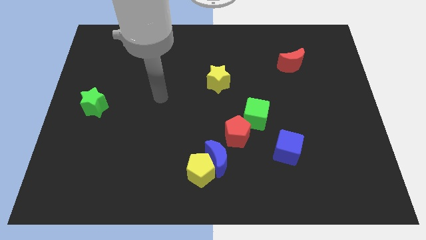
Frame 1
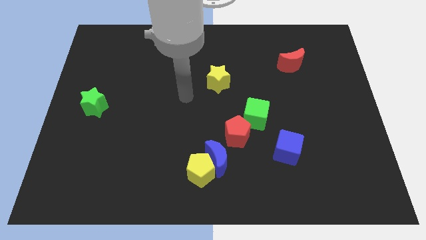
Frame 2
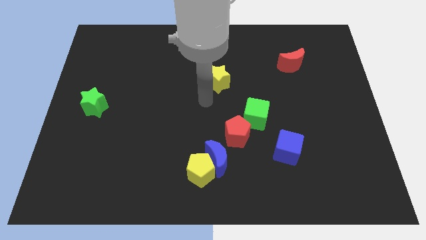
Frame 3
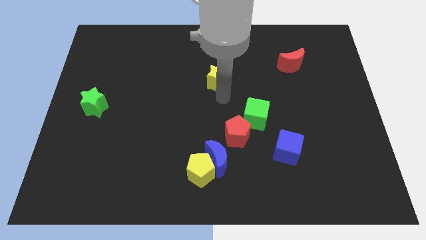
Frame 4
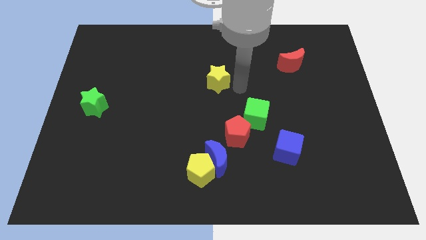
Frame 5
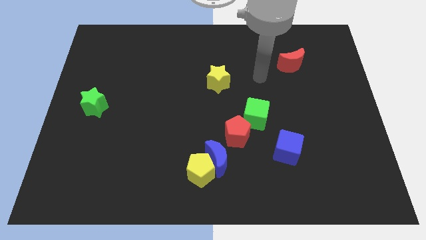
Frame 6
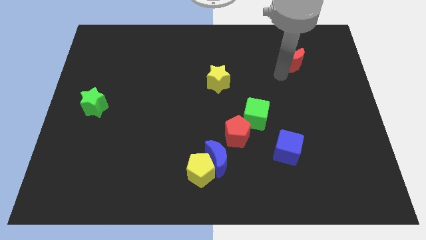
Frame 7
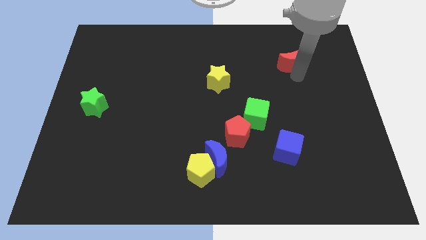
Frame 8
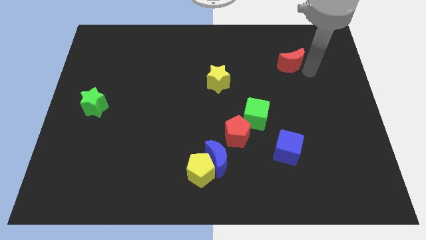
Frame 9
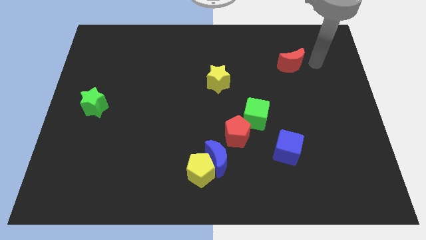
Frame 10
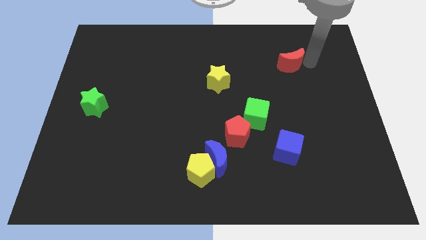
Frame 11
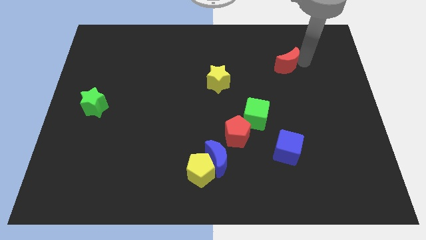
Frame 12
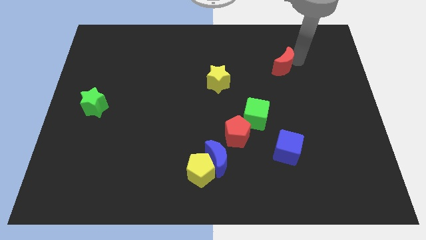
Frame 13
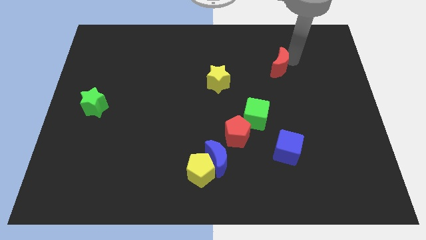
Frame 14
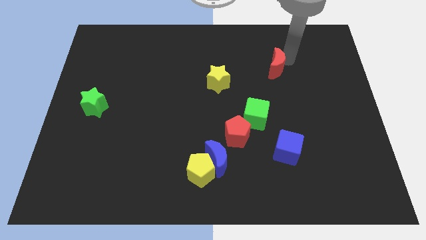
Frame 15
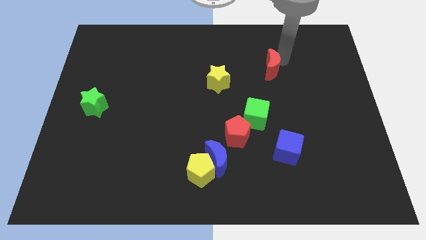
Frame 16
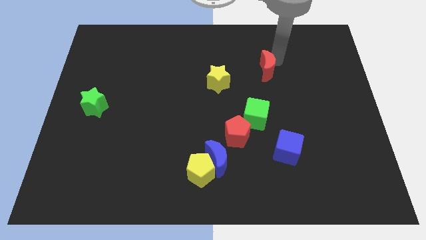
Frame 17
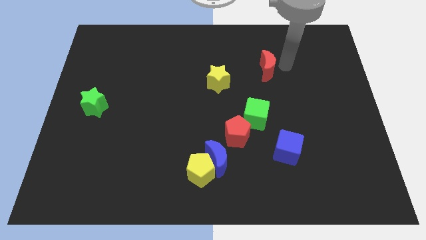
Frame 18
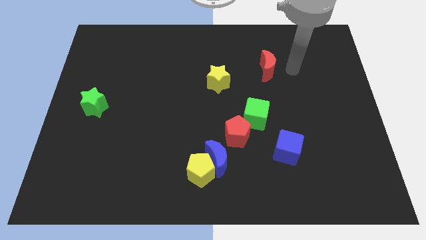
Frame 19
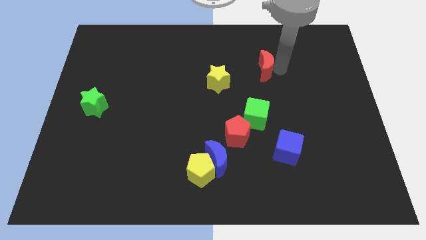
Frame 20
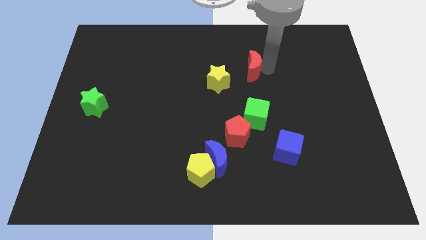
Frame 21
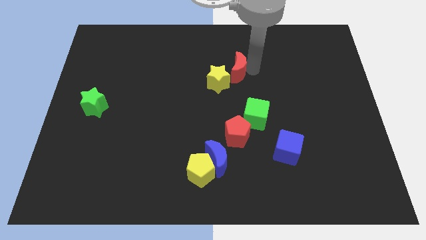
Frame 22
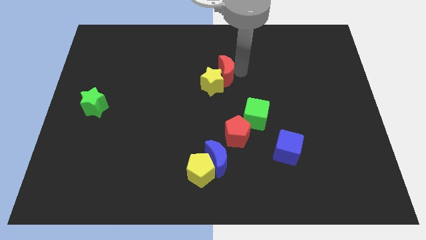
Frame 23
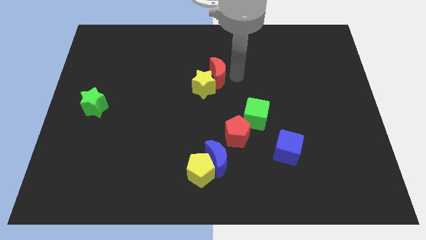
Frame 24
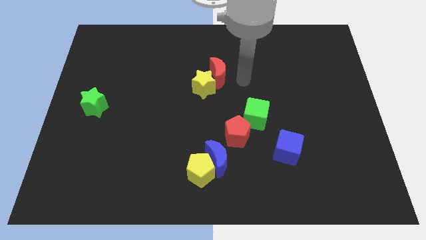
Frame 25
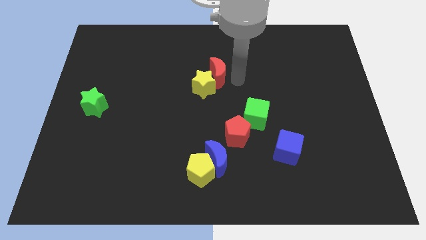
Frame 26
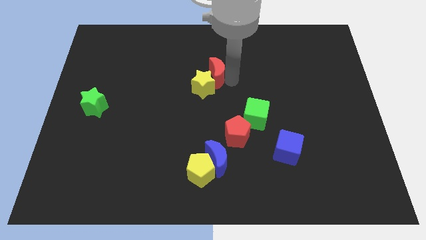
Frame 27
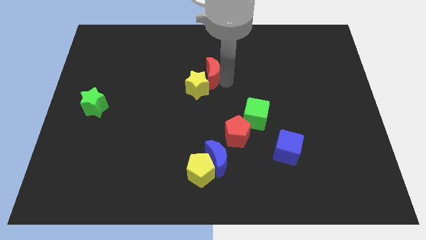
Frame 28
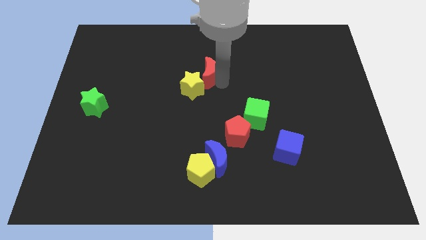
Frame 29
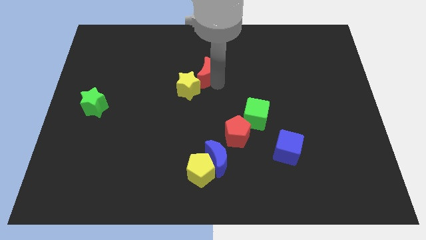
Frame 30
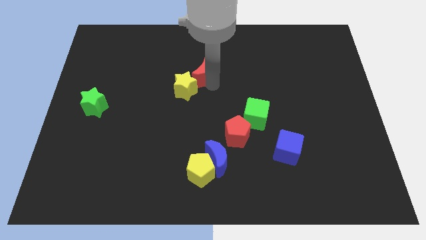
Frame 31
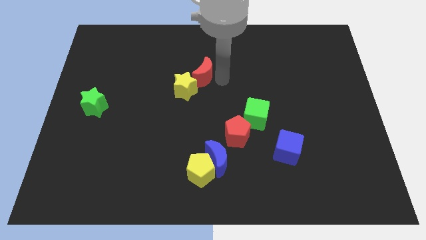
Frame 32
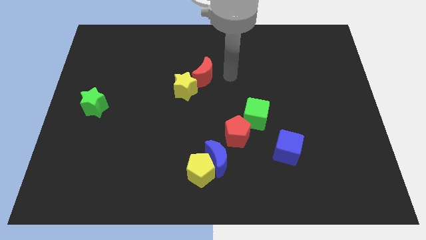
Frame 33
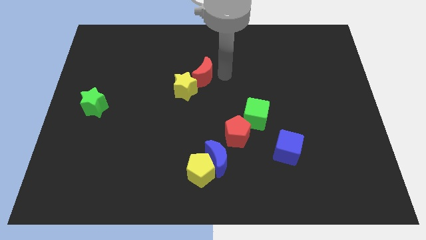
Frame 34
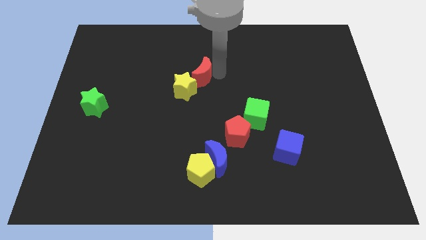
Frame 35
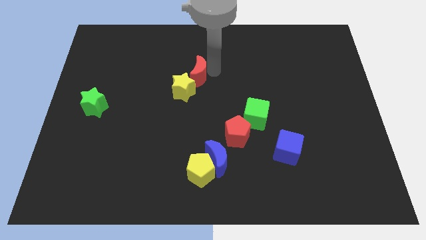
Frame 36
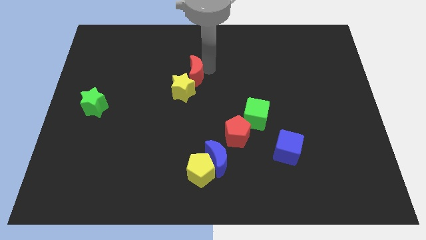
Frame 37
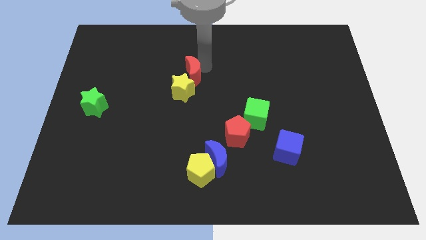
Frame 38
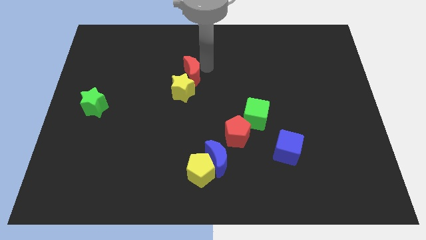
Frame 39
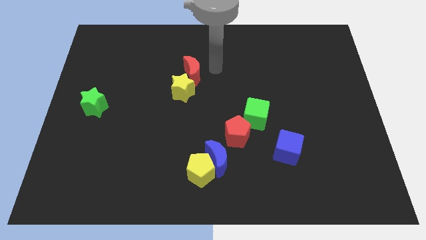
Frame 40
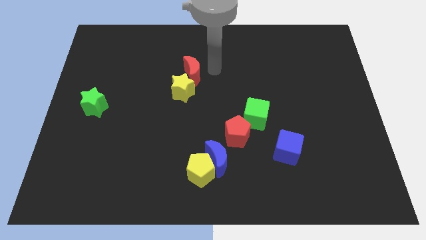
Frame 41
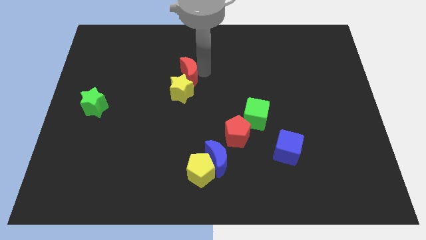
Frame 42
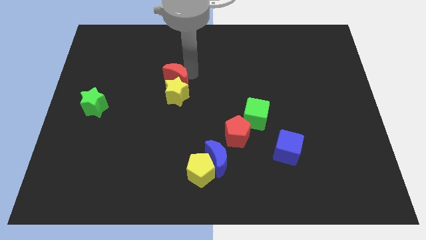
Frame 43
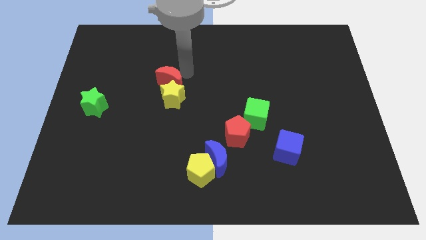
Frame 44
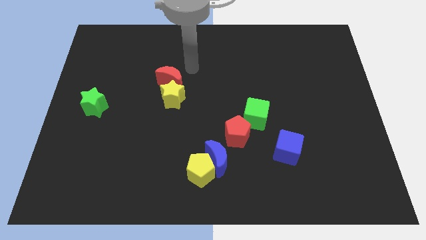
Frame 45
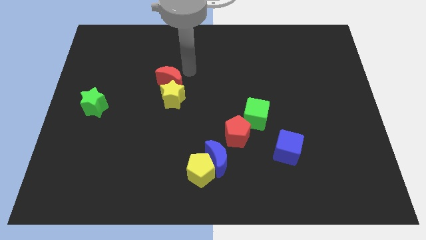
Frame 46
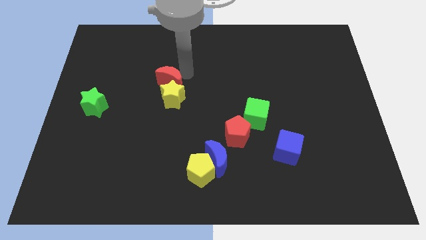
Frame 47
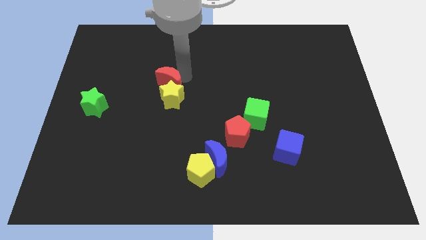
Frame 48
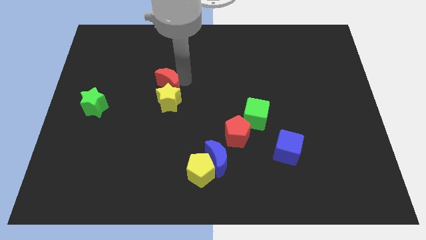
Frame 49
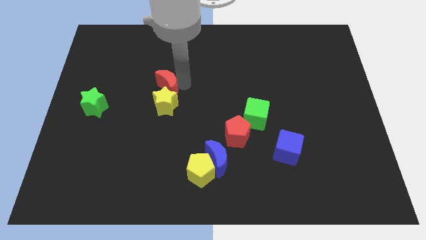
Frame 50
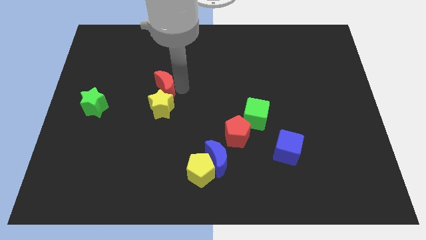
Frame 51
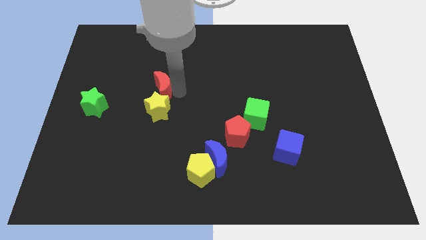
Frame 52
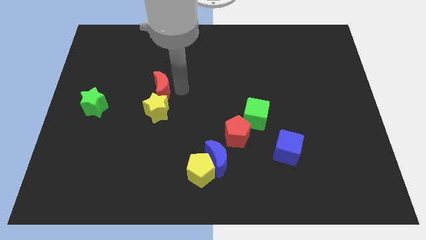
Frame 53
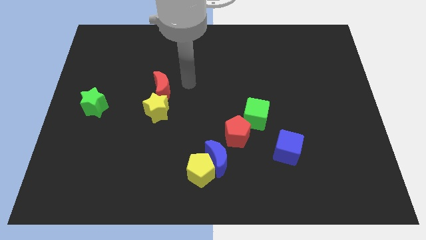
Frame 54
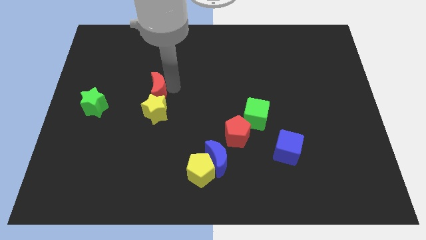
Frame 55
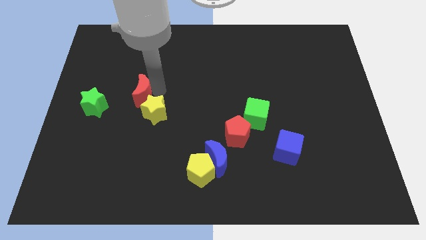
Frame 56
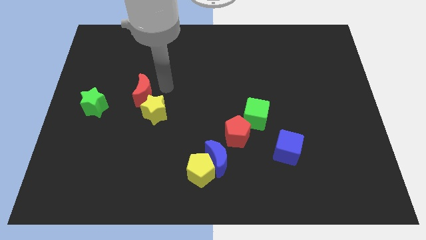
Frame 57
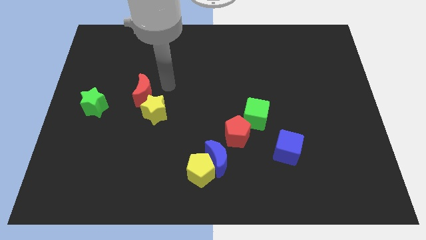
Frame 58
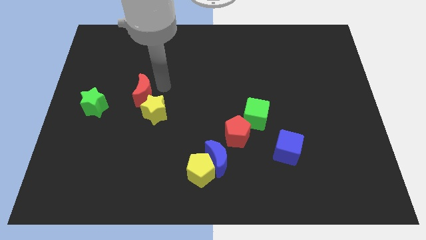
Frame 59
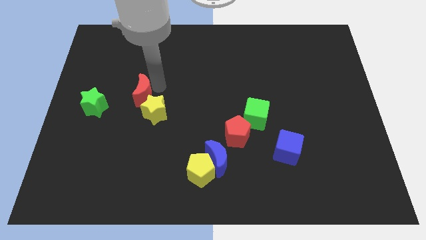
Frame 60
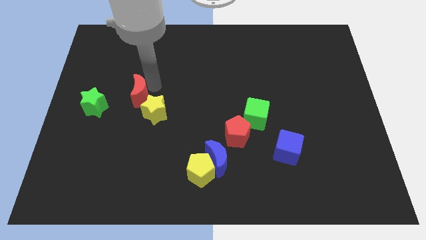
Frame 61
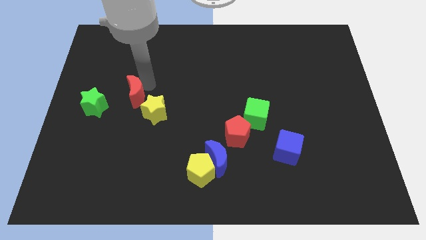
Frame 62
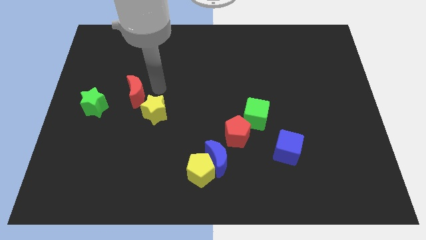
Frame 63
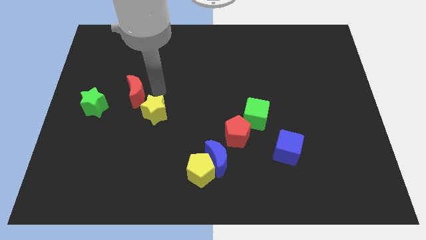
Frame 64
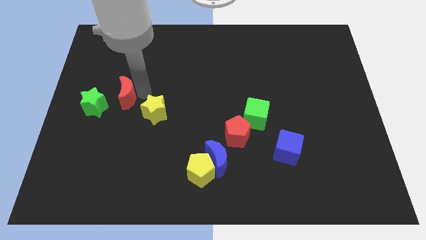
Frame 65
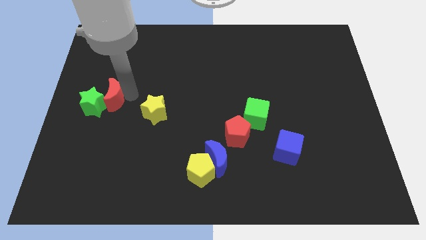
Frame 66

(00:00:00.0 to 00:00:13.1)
put the red moon towards the green star
